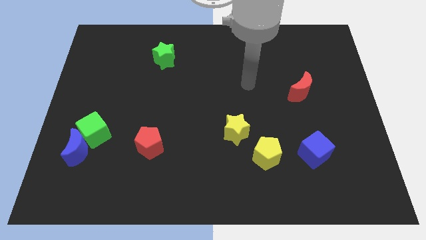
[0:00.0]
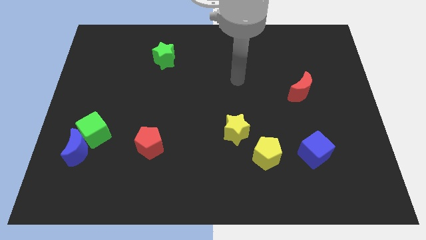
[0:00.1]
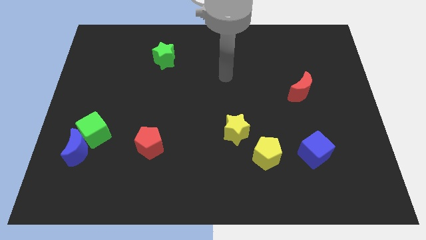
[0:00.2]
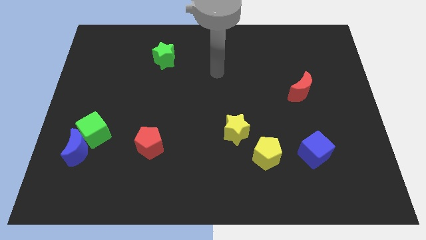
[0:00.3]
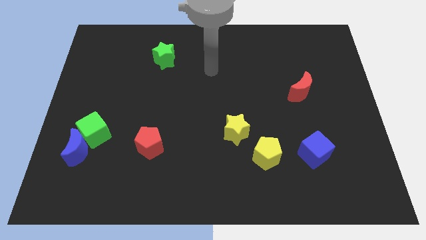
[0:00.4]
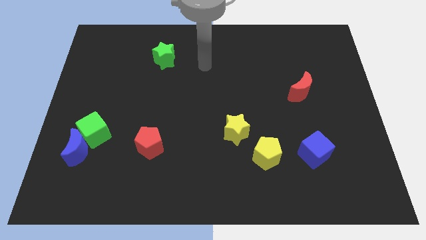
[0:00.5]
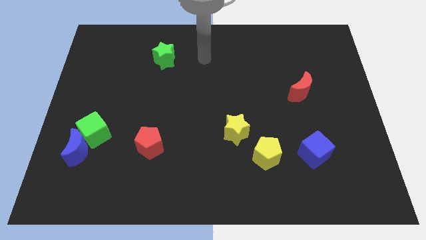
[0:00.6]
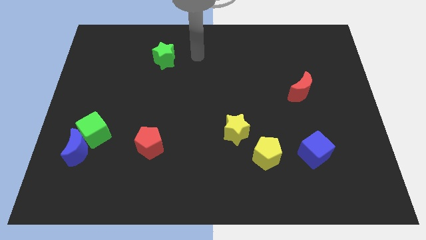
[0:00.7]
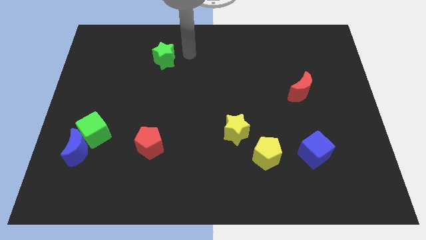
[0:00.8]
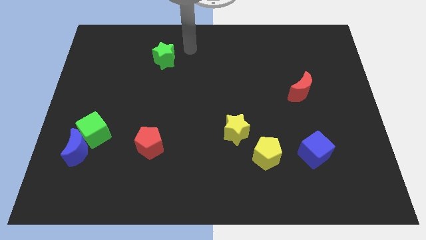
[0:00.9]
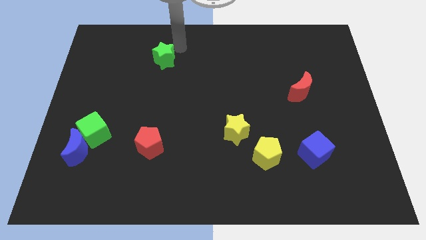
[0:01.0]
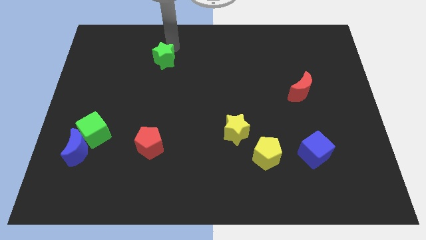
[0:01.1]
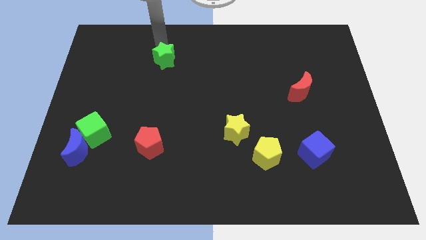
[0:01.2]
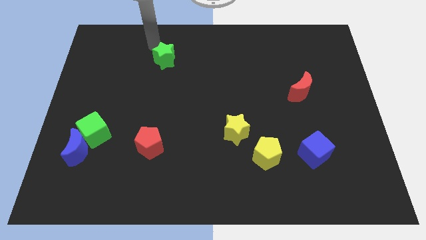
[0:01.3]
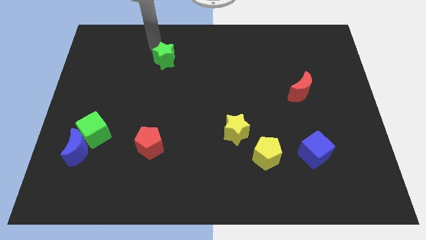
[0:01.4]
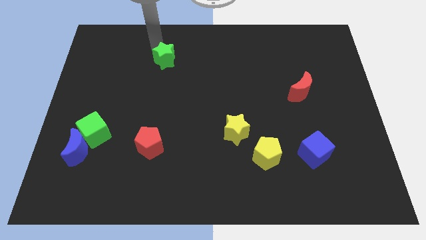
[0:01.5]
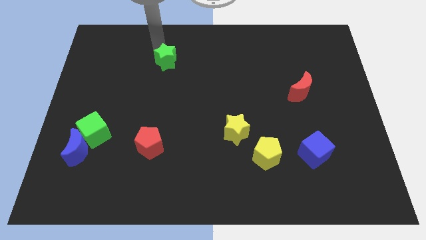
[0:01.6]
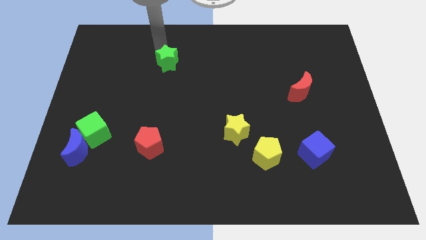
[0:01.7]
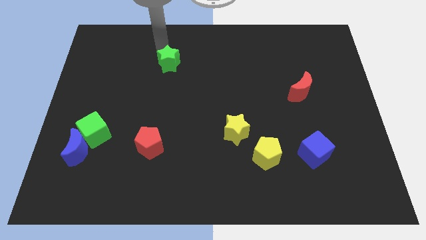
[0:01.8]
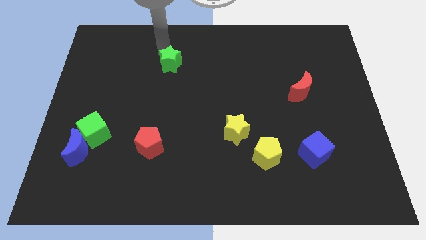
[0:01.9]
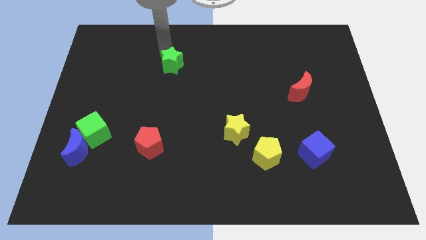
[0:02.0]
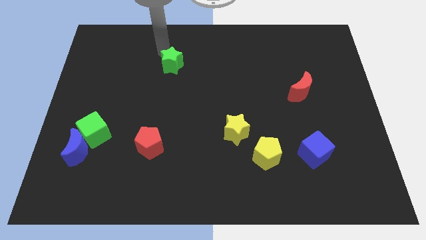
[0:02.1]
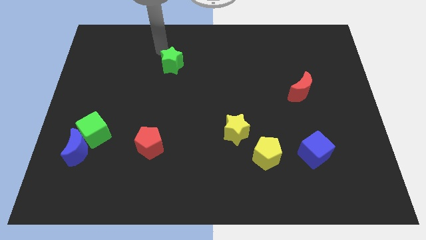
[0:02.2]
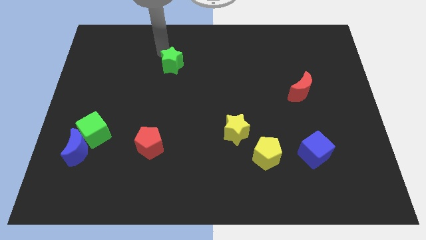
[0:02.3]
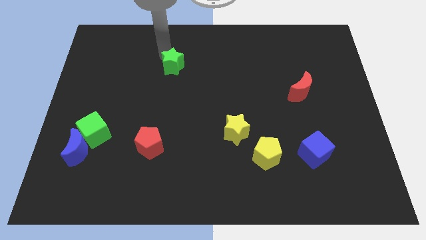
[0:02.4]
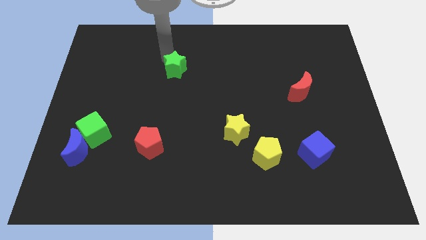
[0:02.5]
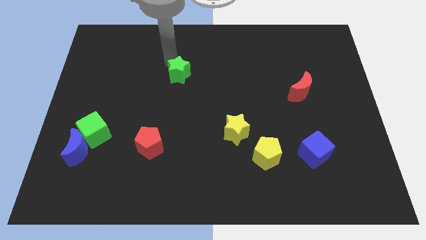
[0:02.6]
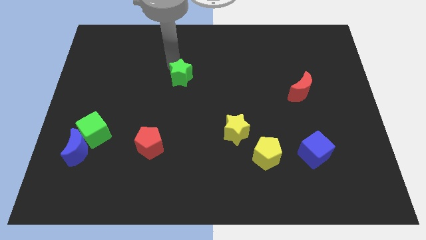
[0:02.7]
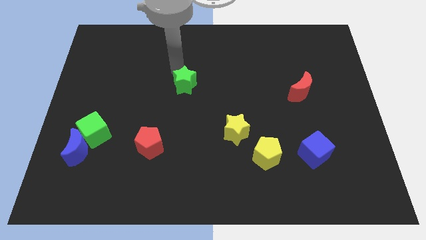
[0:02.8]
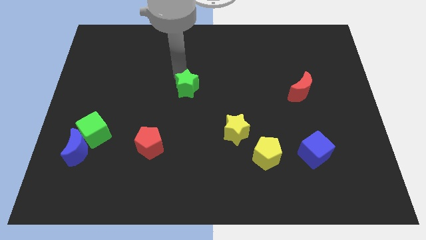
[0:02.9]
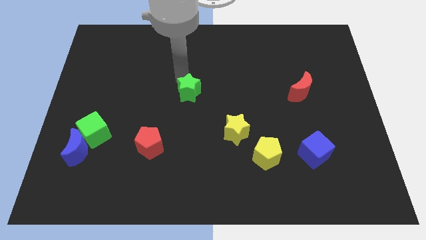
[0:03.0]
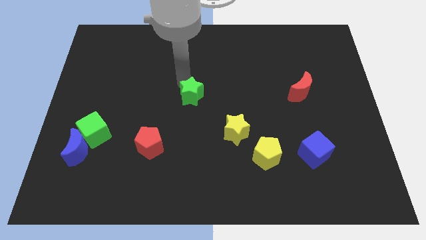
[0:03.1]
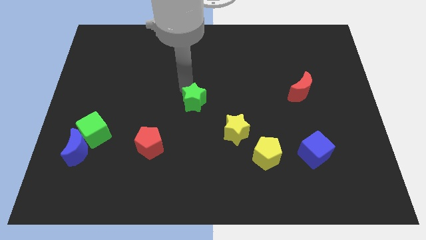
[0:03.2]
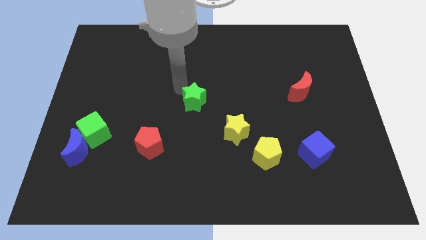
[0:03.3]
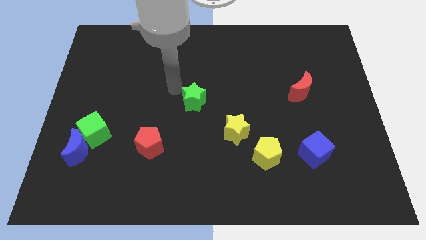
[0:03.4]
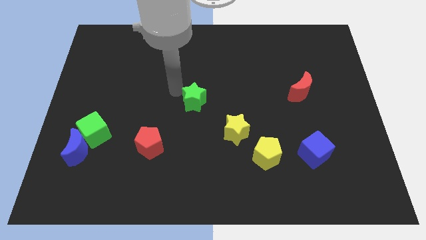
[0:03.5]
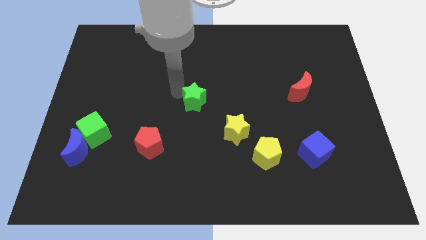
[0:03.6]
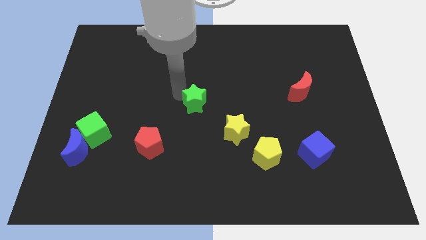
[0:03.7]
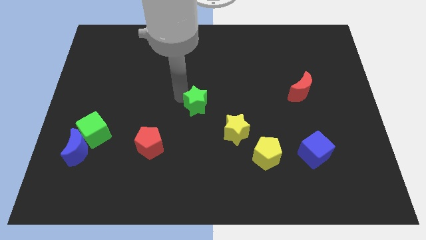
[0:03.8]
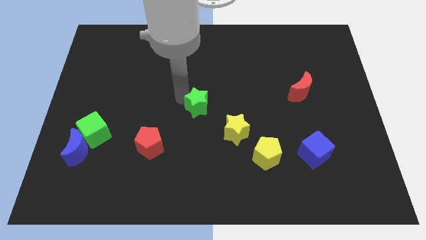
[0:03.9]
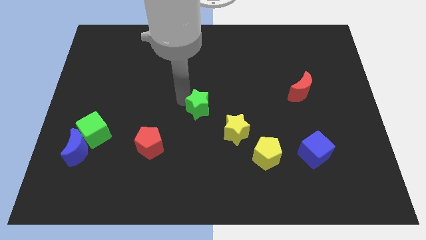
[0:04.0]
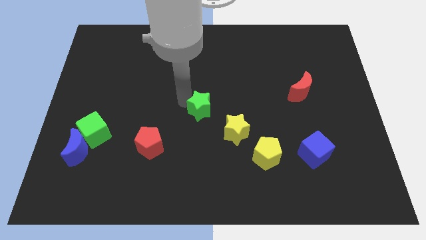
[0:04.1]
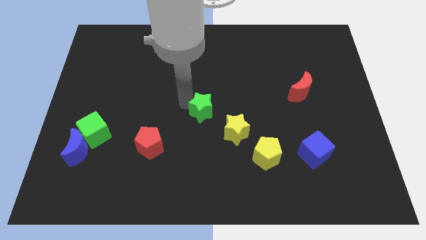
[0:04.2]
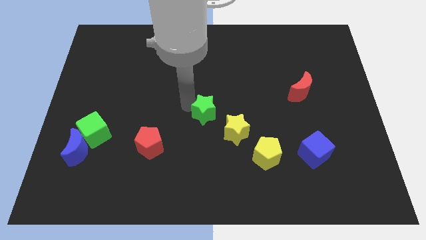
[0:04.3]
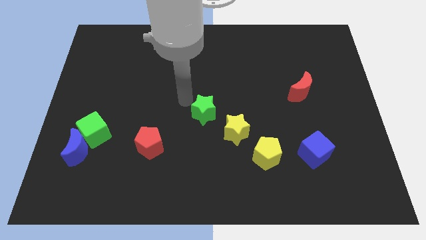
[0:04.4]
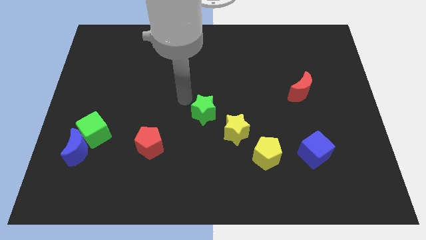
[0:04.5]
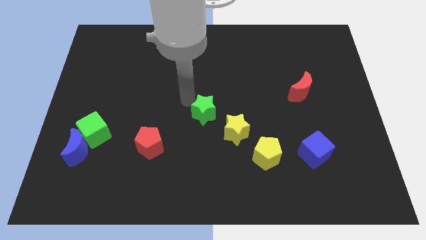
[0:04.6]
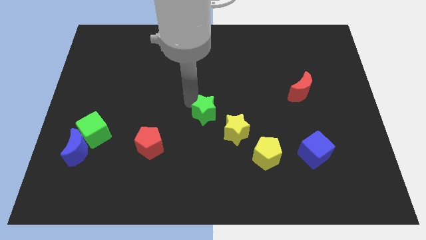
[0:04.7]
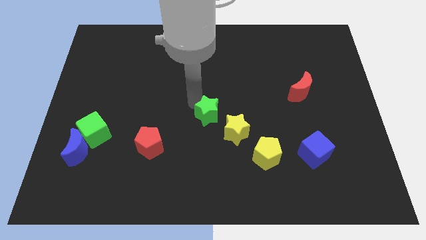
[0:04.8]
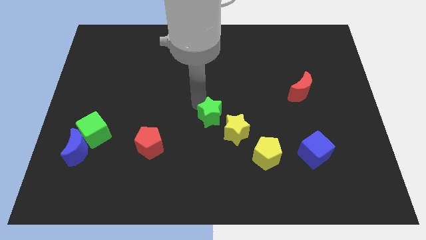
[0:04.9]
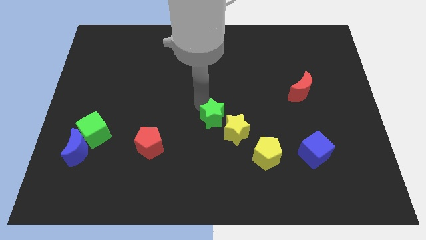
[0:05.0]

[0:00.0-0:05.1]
slide the green star towards the yellow star

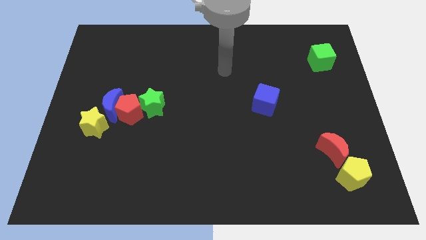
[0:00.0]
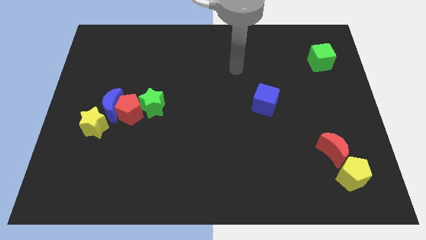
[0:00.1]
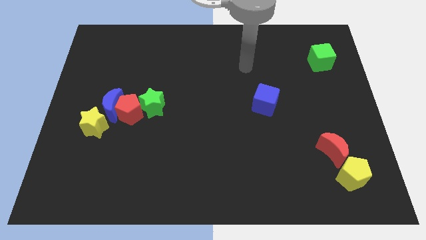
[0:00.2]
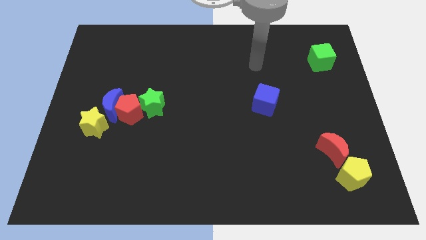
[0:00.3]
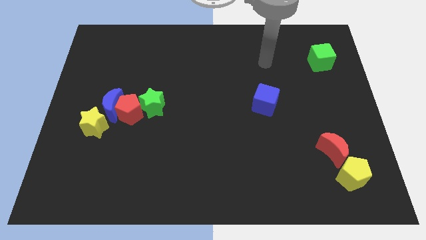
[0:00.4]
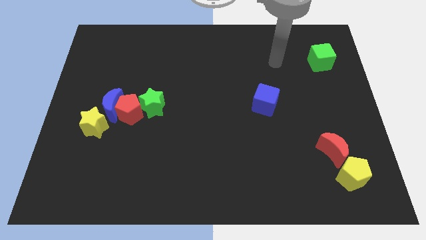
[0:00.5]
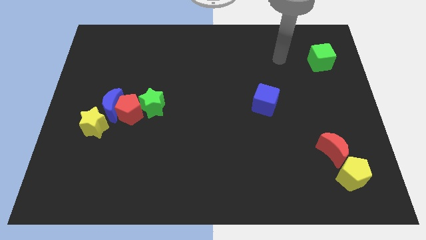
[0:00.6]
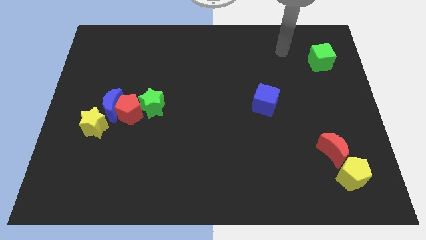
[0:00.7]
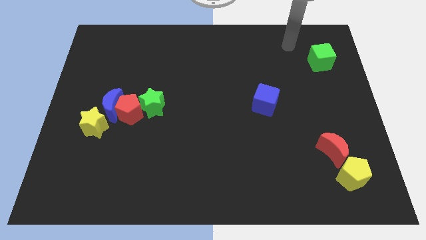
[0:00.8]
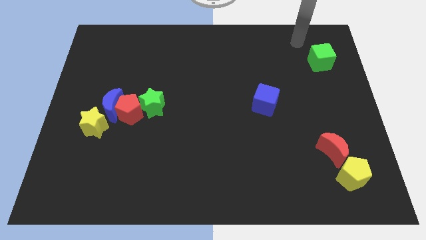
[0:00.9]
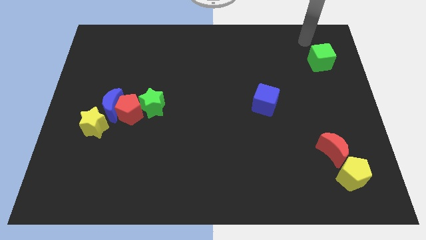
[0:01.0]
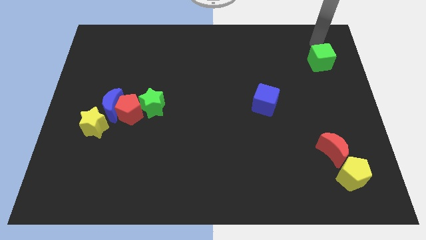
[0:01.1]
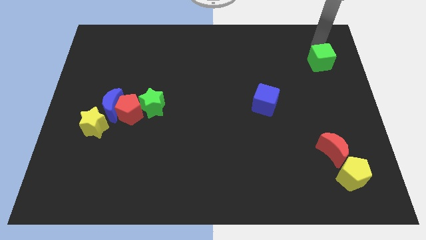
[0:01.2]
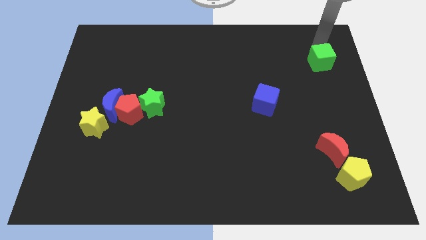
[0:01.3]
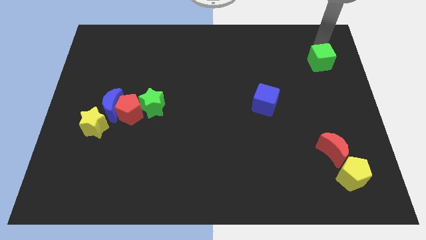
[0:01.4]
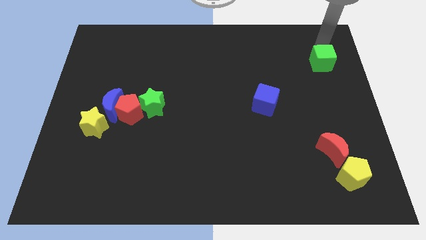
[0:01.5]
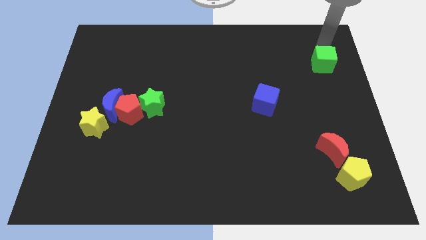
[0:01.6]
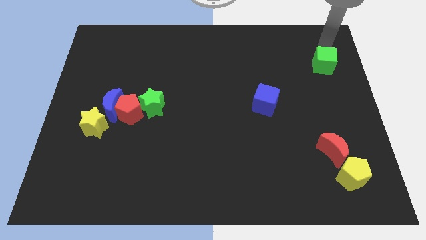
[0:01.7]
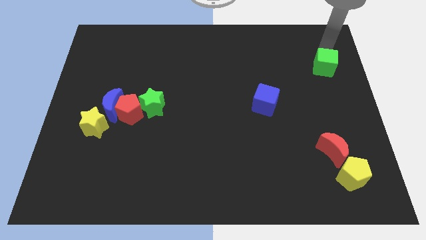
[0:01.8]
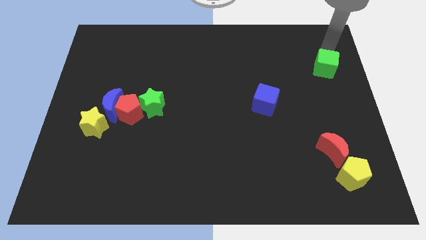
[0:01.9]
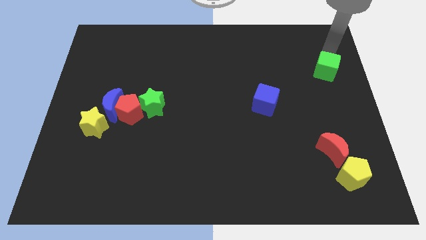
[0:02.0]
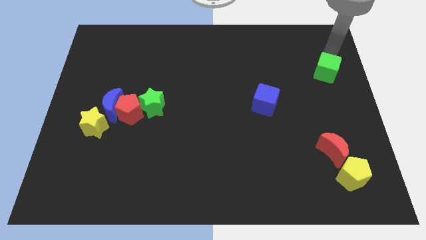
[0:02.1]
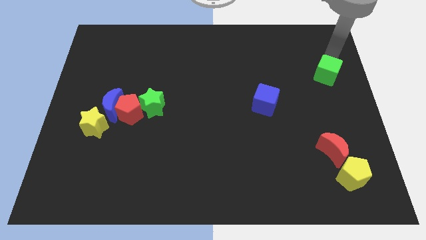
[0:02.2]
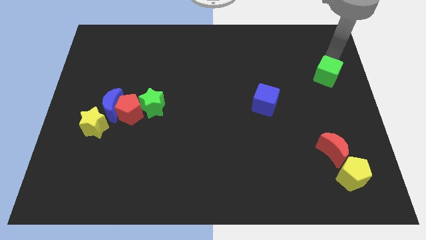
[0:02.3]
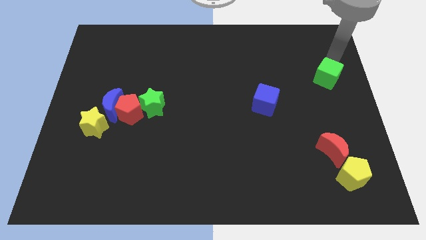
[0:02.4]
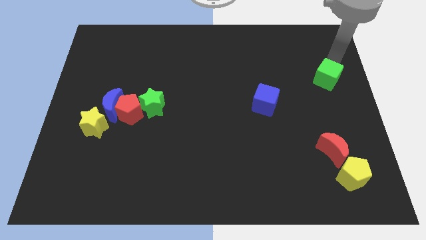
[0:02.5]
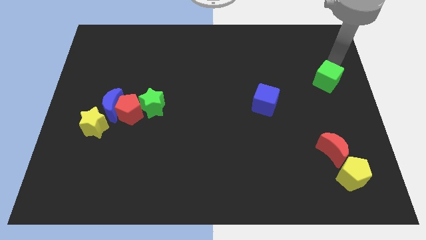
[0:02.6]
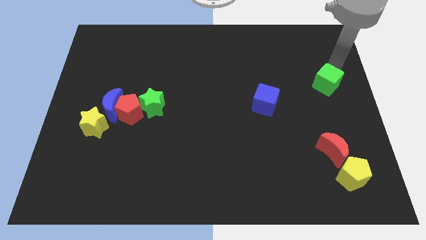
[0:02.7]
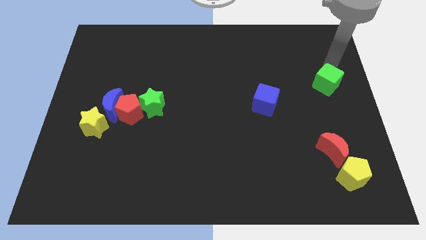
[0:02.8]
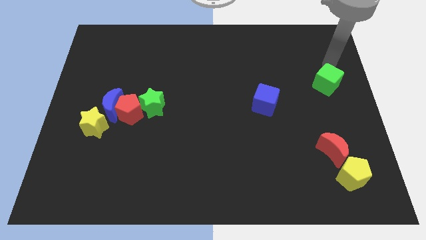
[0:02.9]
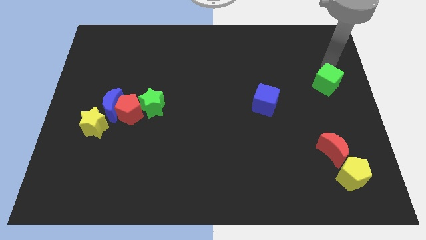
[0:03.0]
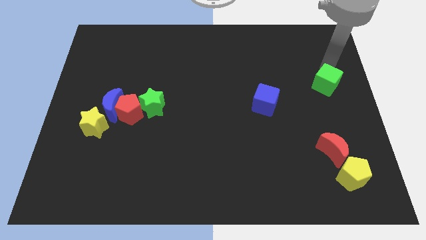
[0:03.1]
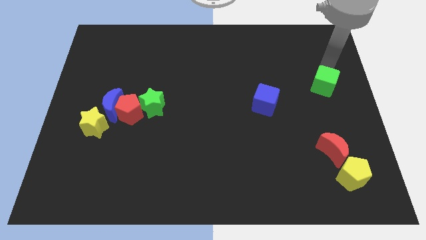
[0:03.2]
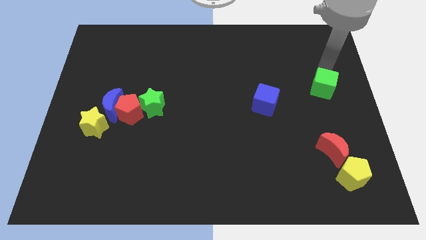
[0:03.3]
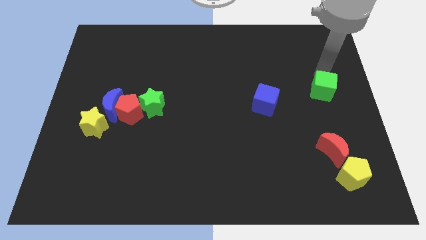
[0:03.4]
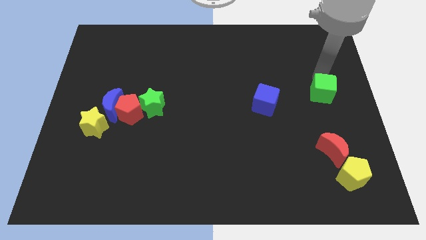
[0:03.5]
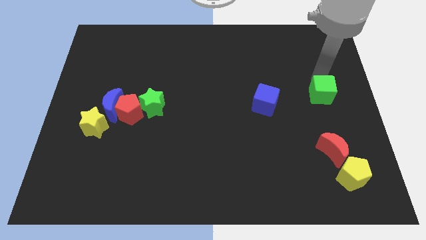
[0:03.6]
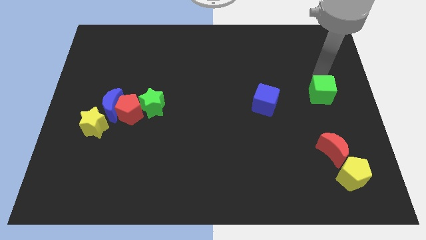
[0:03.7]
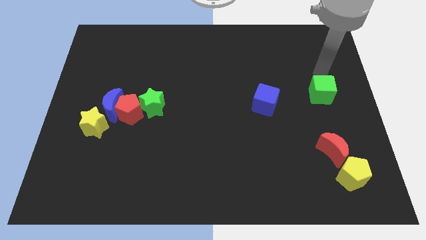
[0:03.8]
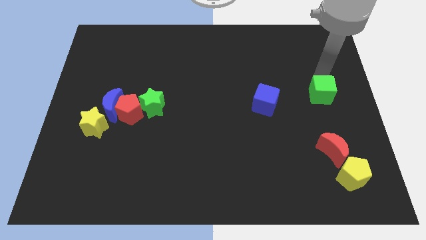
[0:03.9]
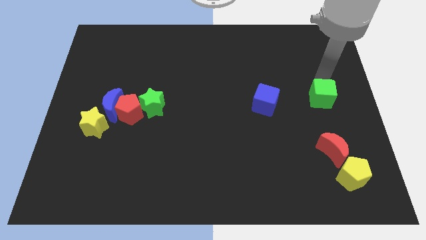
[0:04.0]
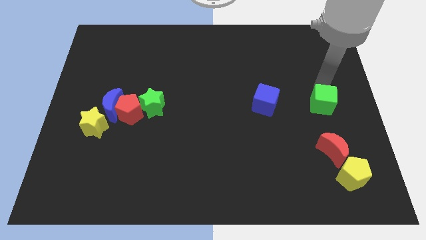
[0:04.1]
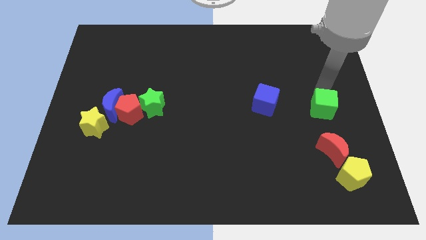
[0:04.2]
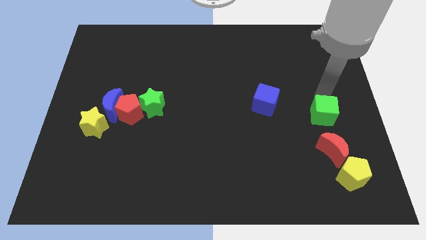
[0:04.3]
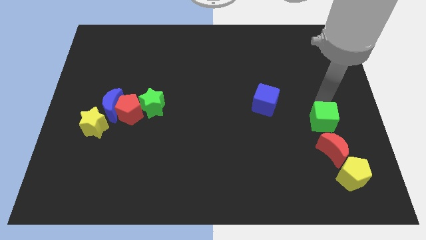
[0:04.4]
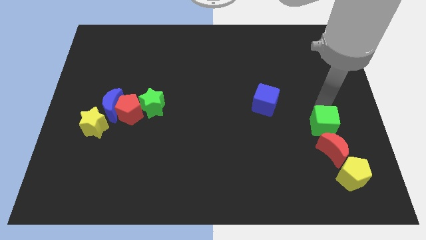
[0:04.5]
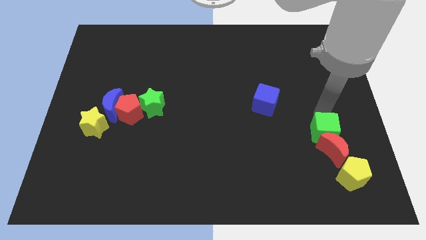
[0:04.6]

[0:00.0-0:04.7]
push the green cube next to the red moon
